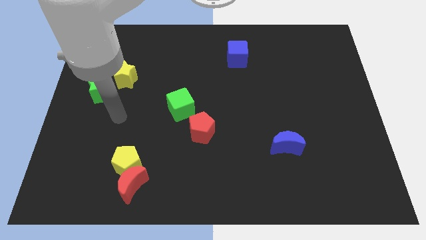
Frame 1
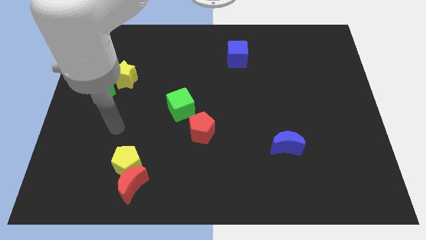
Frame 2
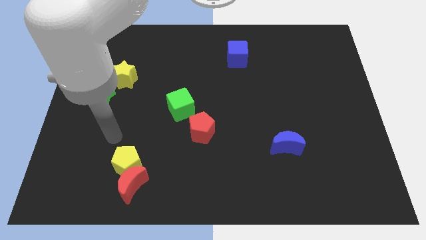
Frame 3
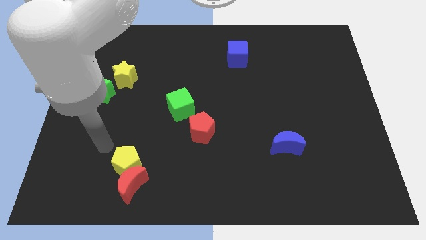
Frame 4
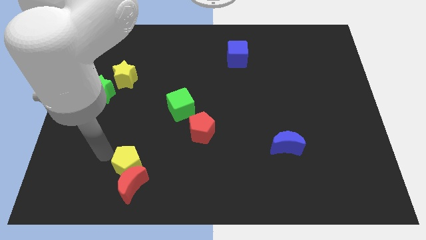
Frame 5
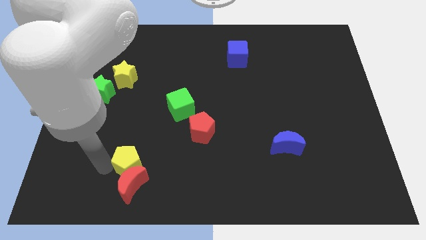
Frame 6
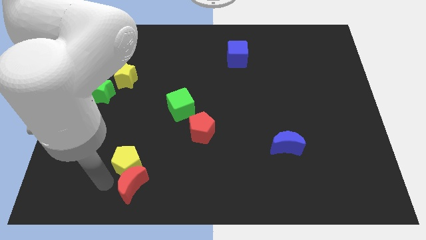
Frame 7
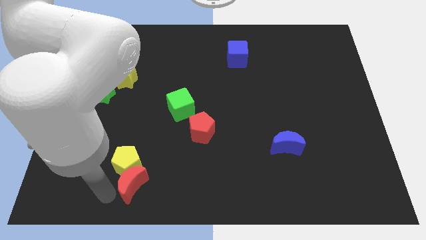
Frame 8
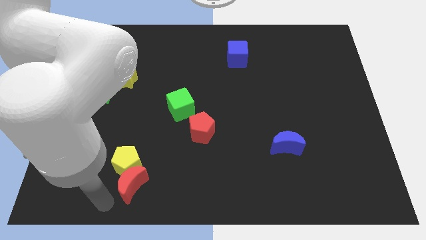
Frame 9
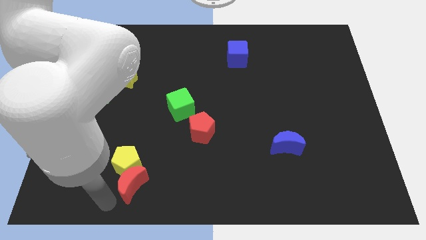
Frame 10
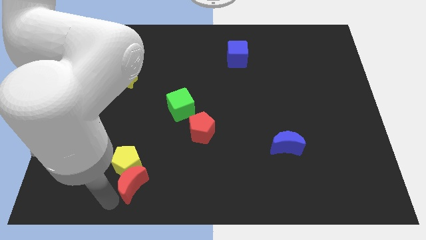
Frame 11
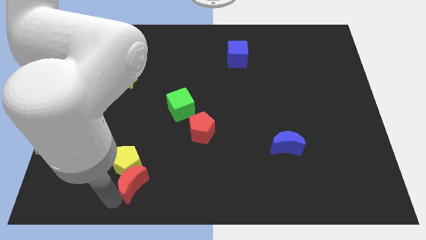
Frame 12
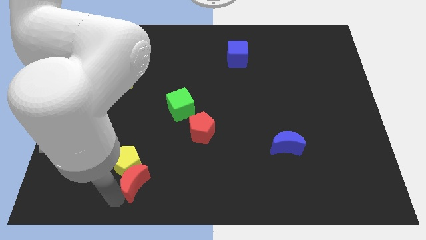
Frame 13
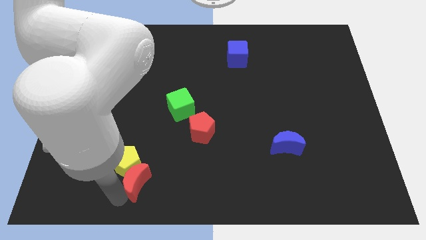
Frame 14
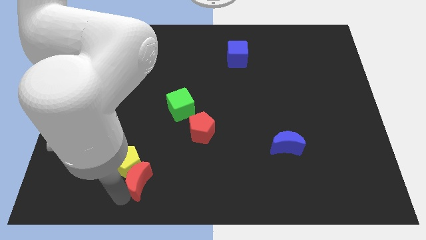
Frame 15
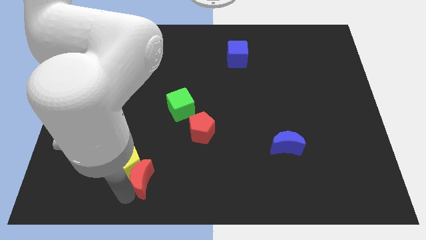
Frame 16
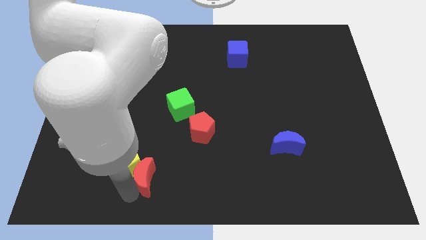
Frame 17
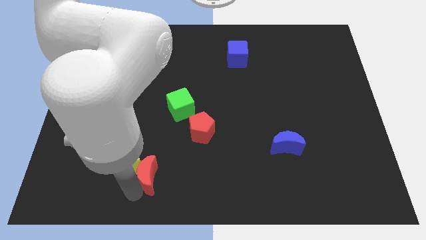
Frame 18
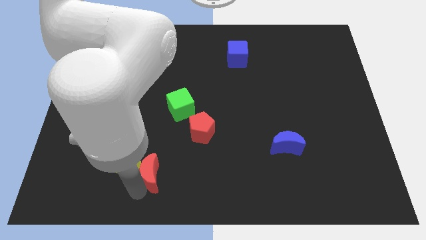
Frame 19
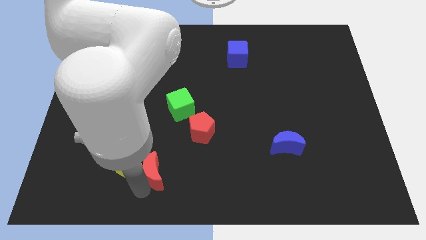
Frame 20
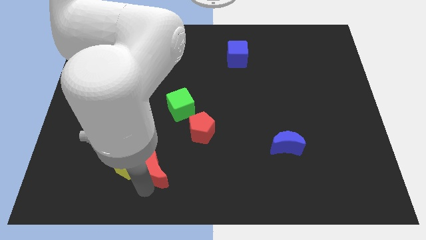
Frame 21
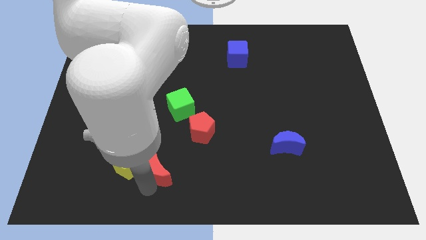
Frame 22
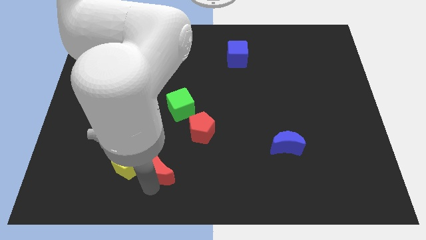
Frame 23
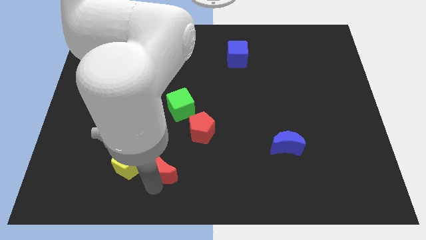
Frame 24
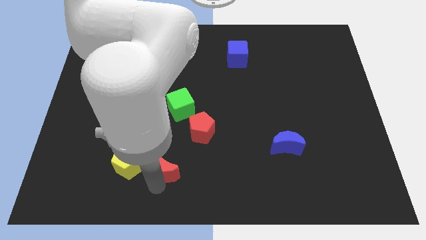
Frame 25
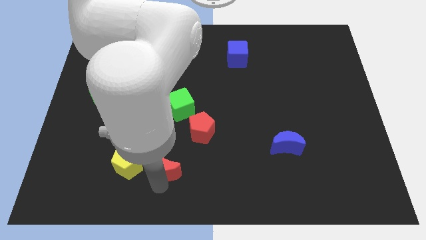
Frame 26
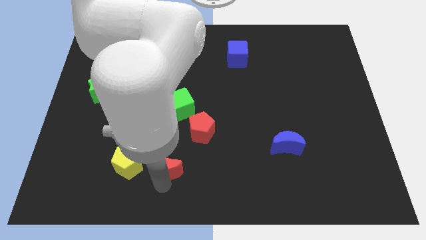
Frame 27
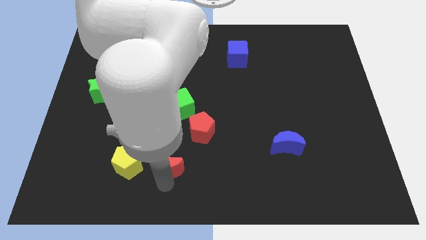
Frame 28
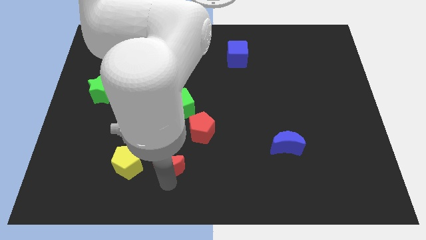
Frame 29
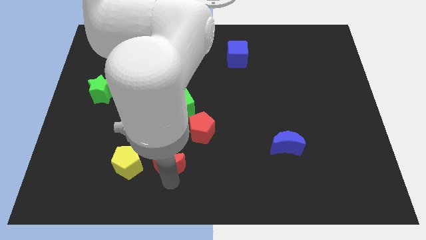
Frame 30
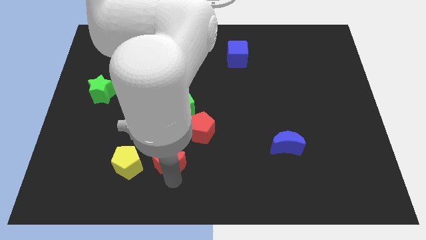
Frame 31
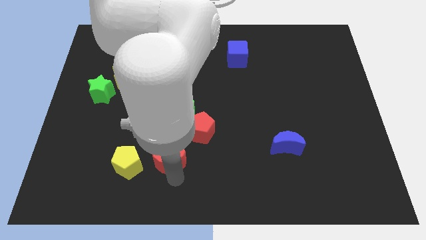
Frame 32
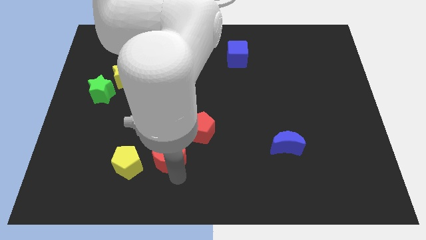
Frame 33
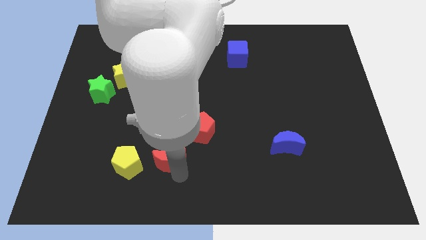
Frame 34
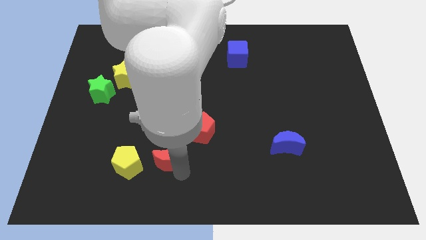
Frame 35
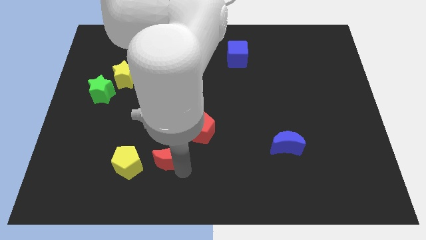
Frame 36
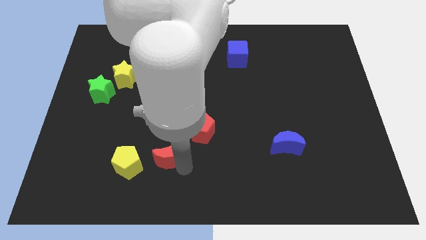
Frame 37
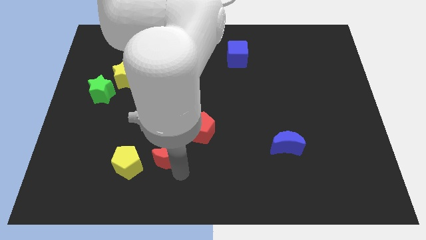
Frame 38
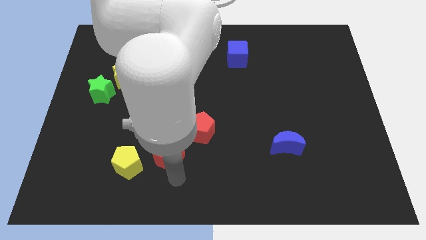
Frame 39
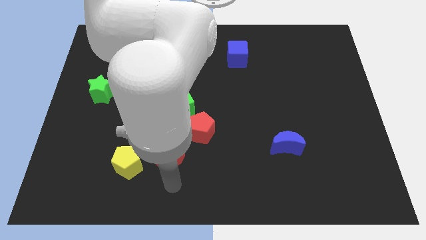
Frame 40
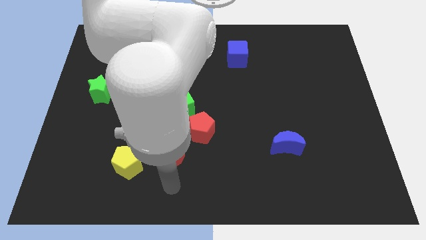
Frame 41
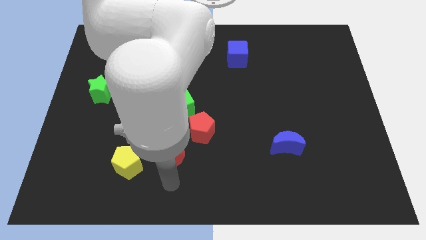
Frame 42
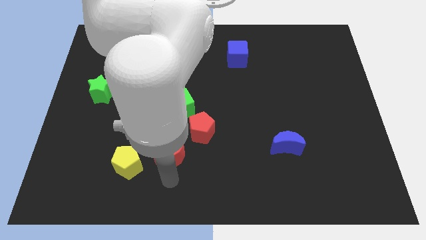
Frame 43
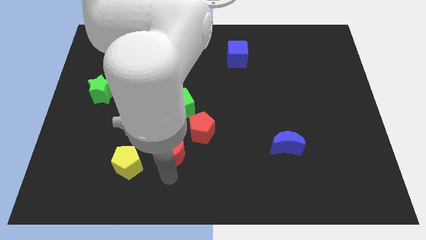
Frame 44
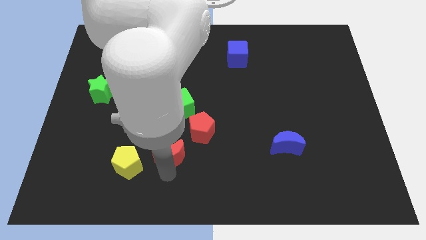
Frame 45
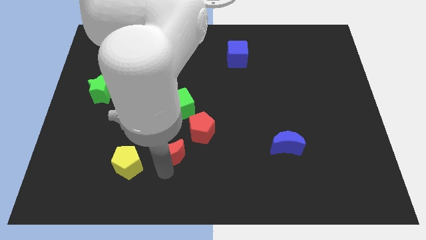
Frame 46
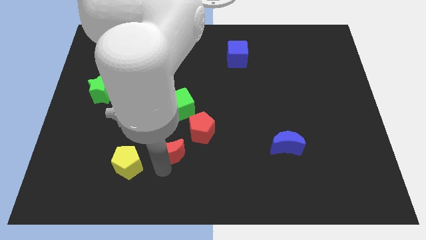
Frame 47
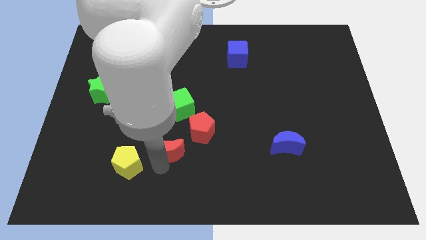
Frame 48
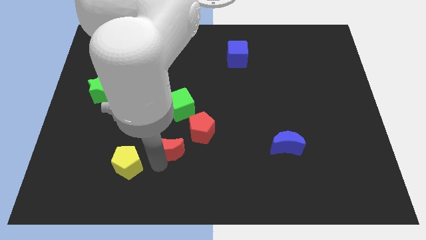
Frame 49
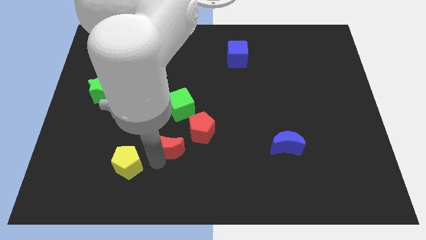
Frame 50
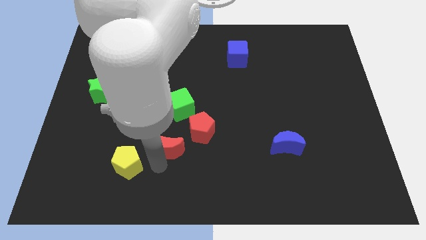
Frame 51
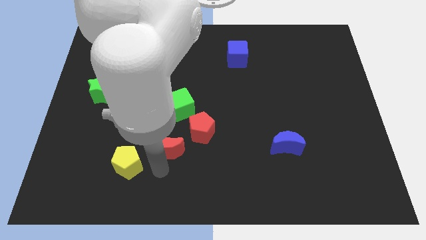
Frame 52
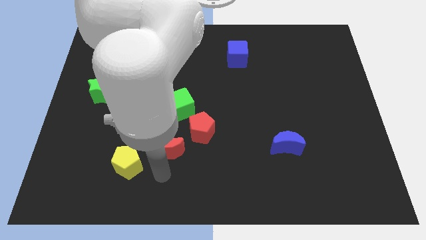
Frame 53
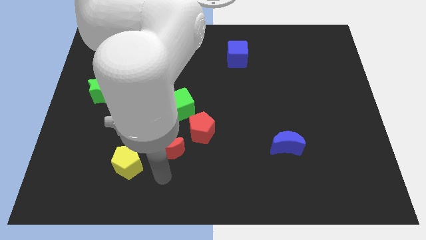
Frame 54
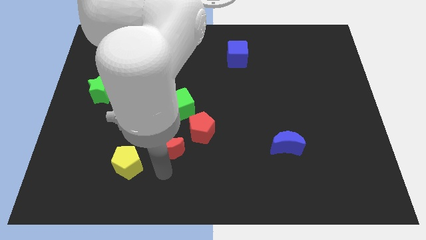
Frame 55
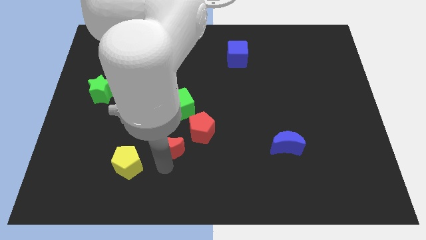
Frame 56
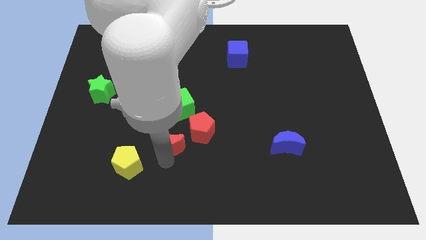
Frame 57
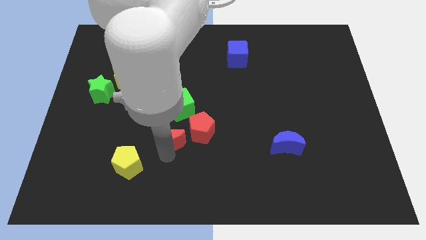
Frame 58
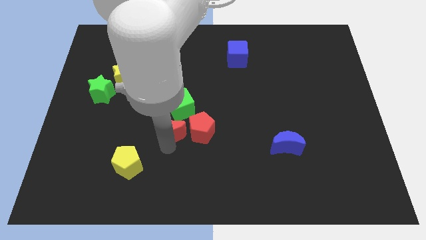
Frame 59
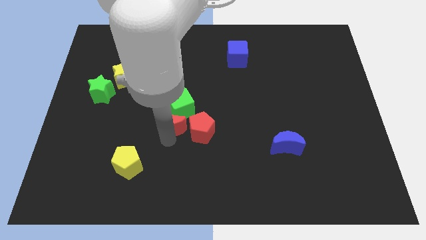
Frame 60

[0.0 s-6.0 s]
move the red moon to the green cube
